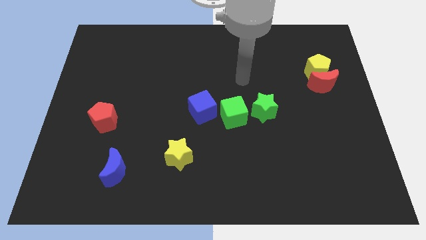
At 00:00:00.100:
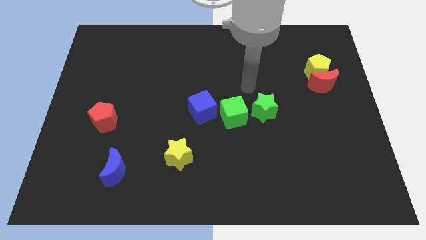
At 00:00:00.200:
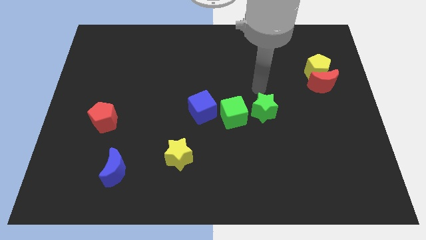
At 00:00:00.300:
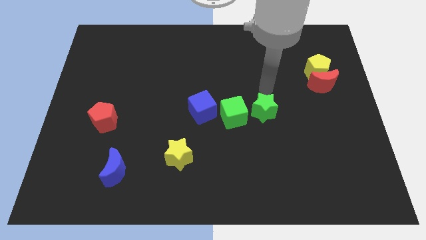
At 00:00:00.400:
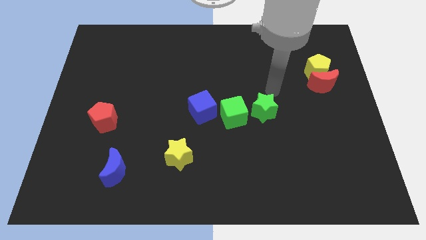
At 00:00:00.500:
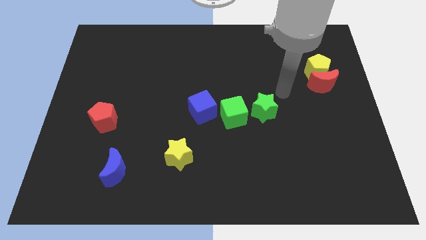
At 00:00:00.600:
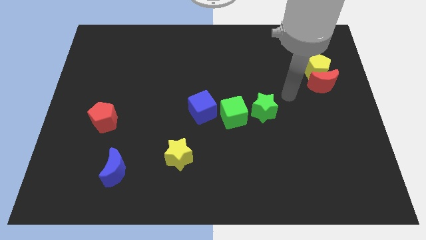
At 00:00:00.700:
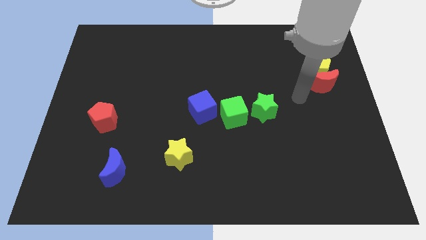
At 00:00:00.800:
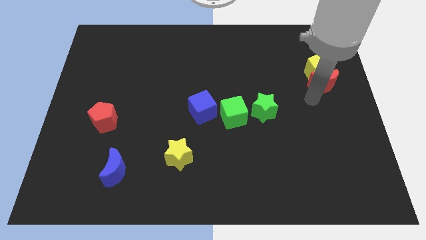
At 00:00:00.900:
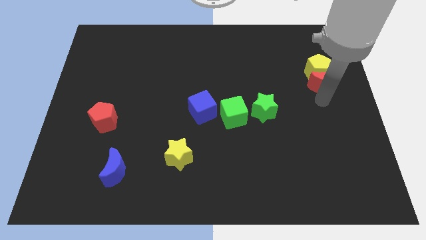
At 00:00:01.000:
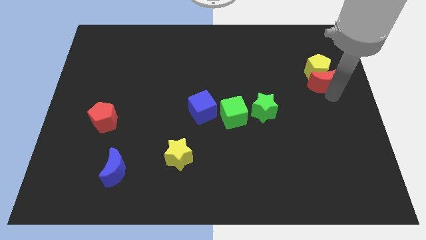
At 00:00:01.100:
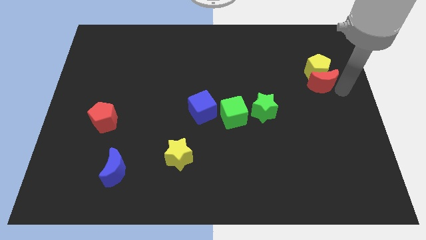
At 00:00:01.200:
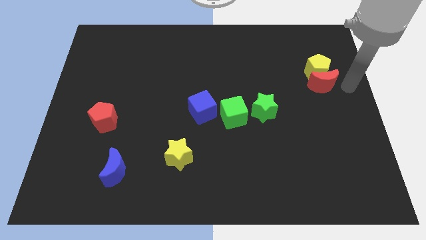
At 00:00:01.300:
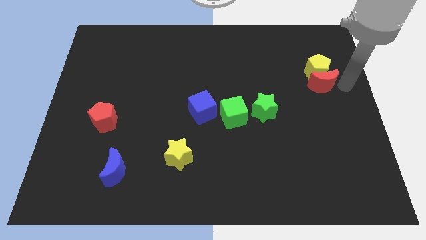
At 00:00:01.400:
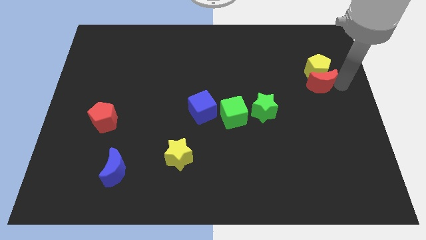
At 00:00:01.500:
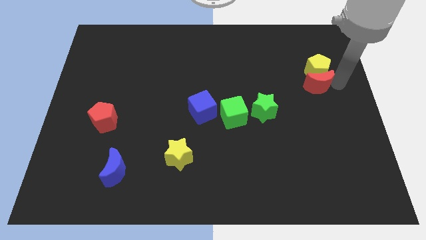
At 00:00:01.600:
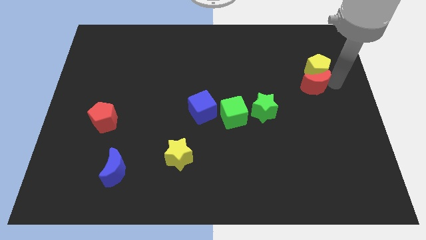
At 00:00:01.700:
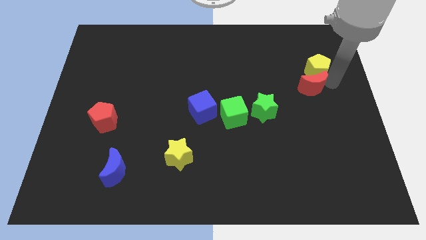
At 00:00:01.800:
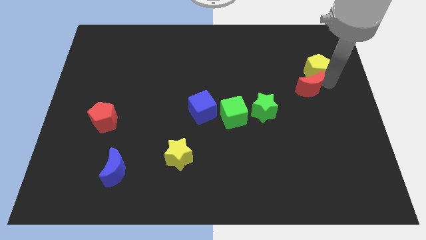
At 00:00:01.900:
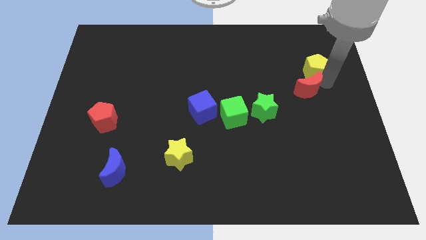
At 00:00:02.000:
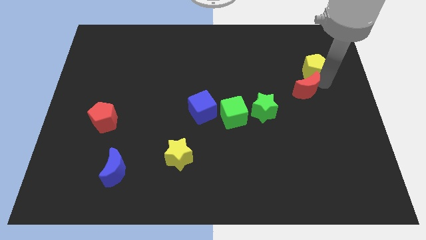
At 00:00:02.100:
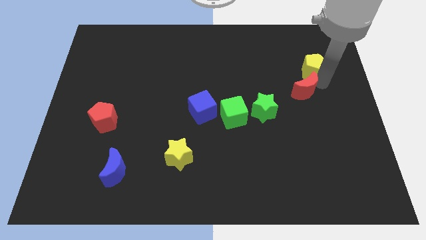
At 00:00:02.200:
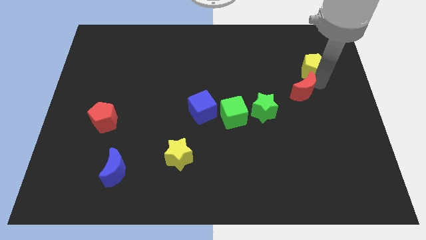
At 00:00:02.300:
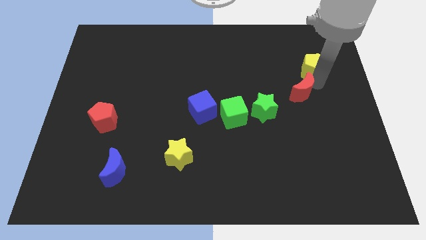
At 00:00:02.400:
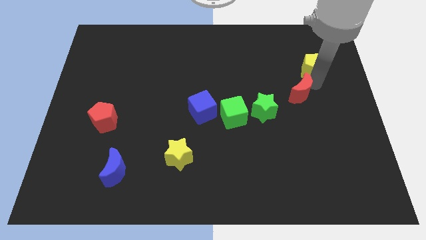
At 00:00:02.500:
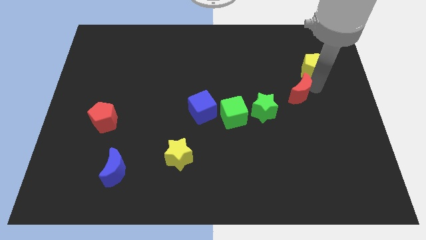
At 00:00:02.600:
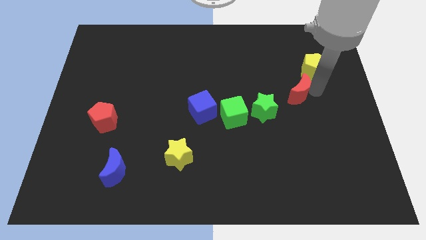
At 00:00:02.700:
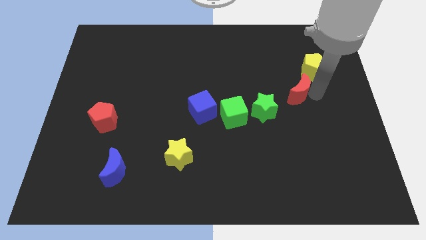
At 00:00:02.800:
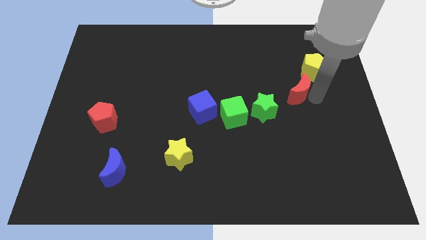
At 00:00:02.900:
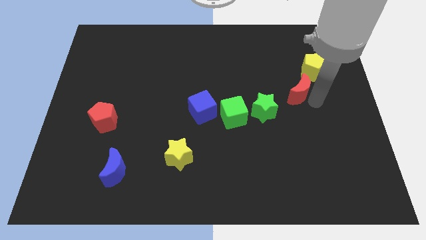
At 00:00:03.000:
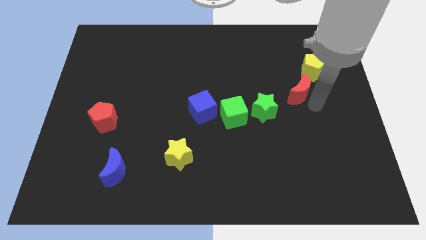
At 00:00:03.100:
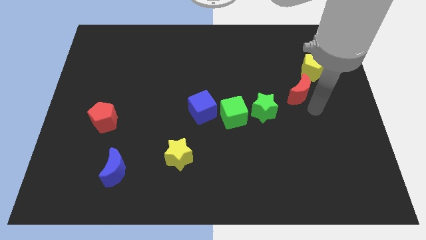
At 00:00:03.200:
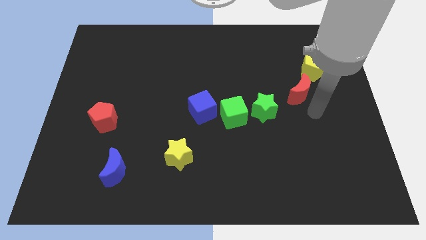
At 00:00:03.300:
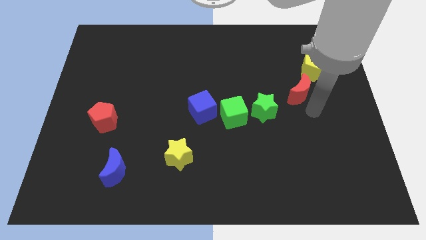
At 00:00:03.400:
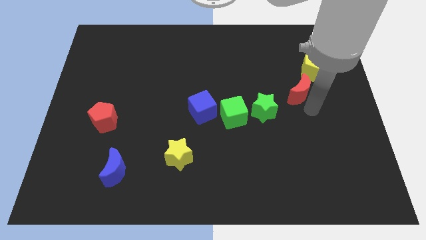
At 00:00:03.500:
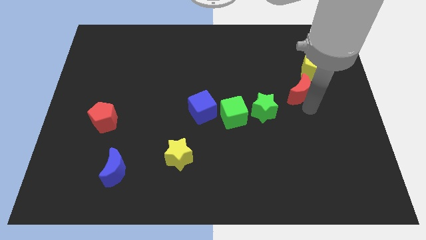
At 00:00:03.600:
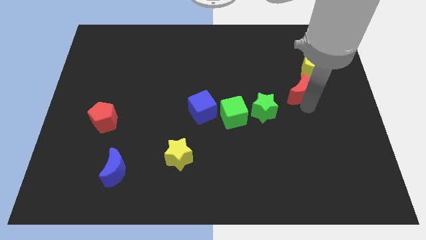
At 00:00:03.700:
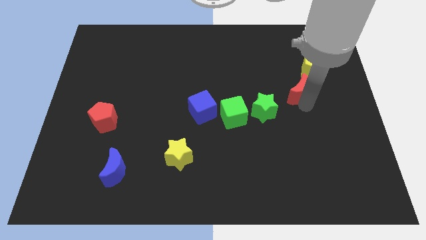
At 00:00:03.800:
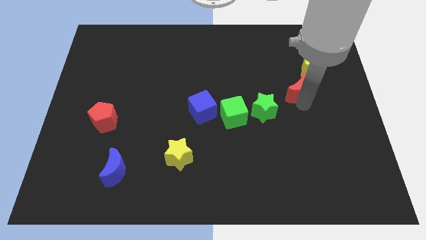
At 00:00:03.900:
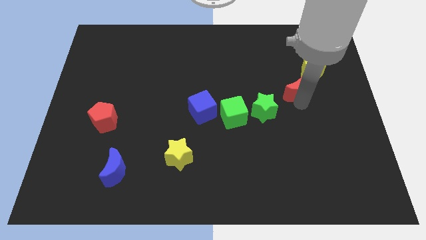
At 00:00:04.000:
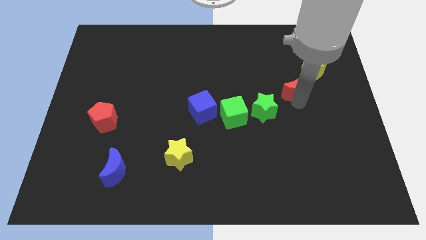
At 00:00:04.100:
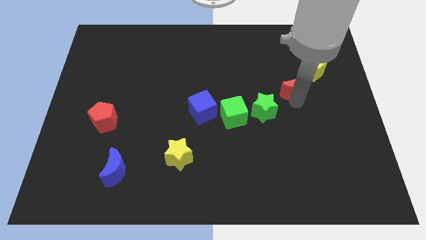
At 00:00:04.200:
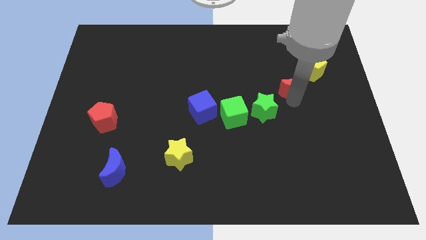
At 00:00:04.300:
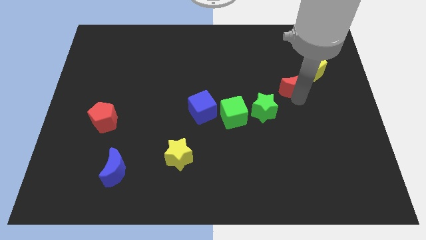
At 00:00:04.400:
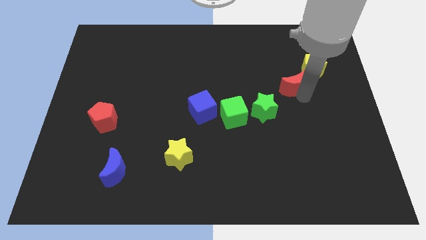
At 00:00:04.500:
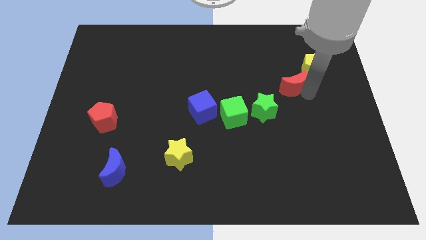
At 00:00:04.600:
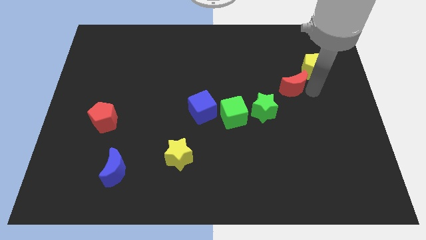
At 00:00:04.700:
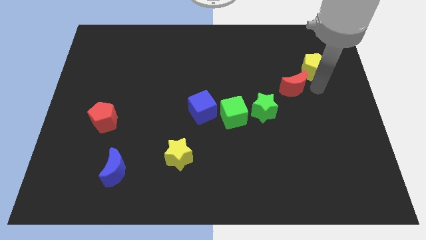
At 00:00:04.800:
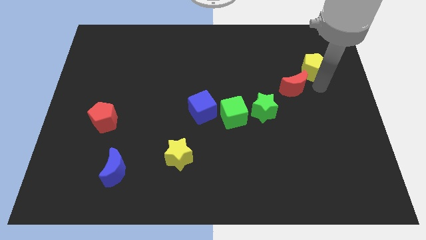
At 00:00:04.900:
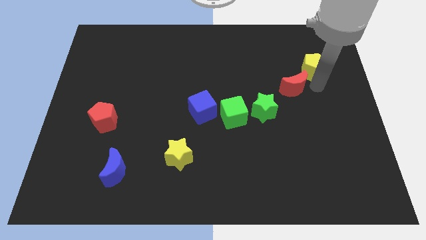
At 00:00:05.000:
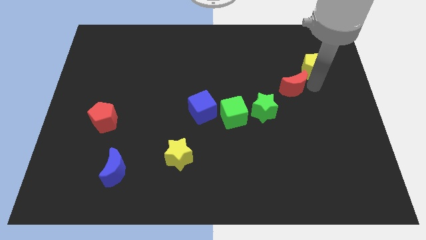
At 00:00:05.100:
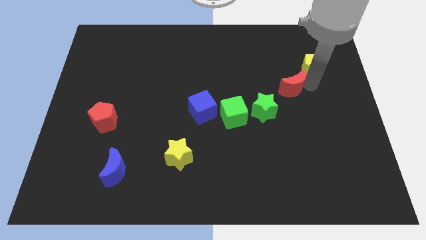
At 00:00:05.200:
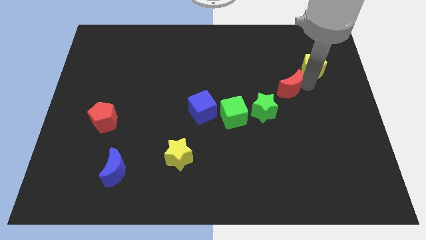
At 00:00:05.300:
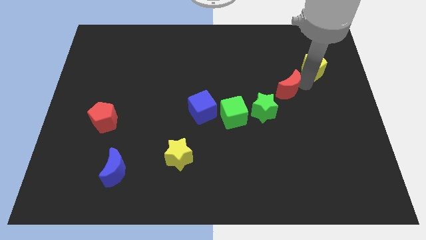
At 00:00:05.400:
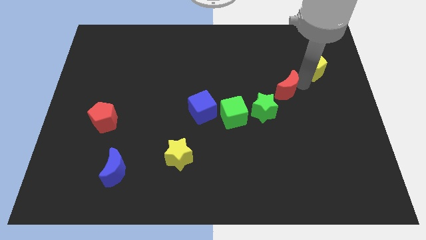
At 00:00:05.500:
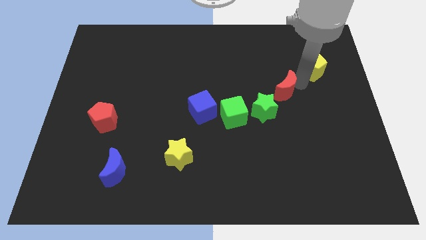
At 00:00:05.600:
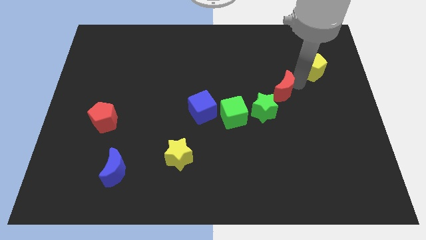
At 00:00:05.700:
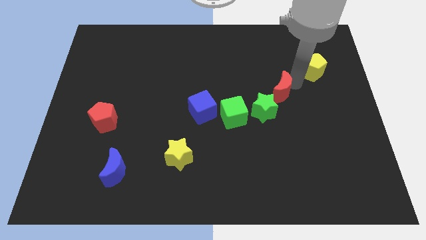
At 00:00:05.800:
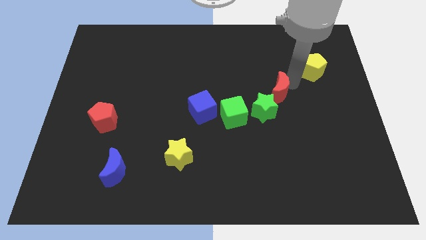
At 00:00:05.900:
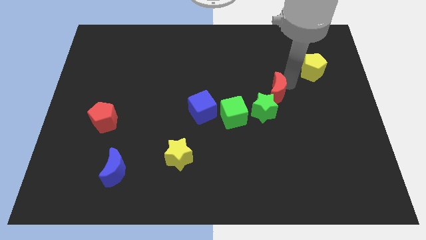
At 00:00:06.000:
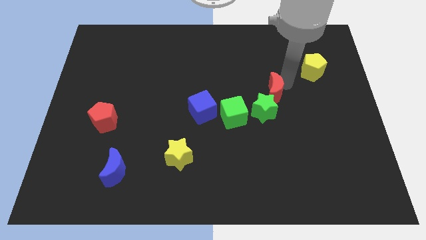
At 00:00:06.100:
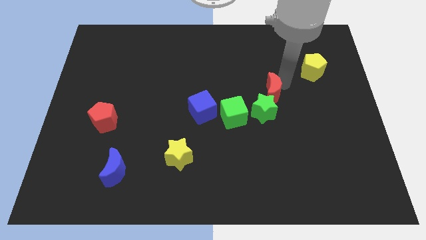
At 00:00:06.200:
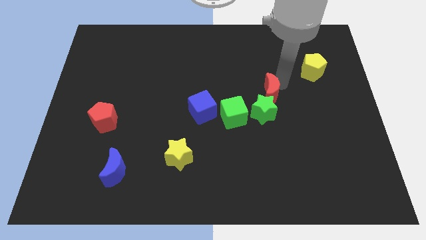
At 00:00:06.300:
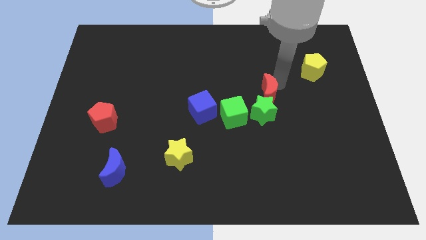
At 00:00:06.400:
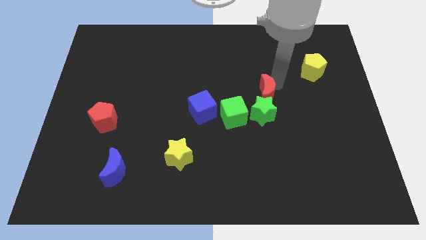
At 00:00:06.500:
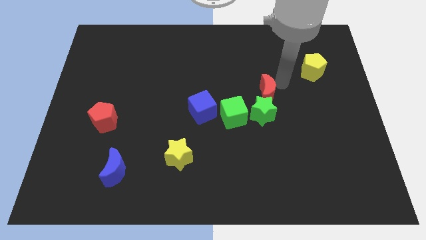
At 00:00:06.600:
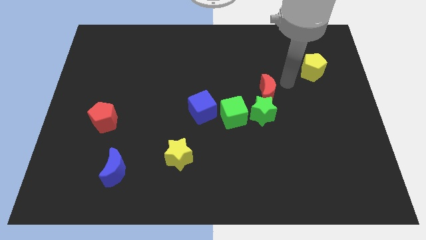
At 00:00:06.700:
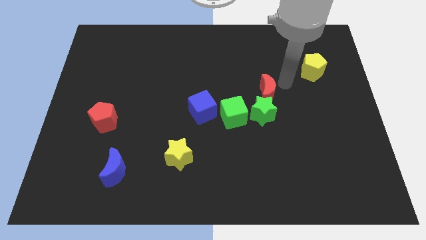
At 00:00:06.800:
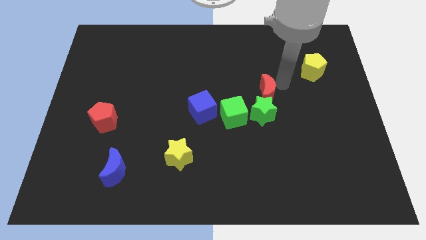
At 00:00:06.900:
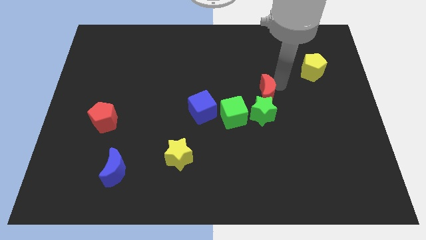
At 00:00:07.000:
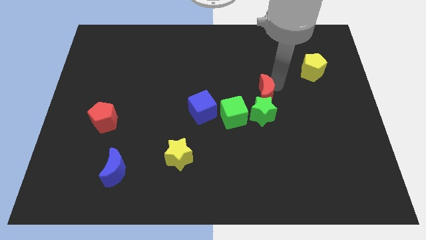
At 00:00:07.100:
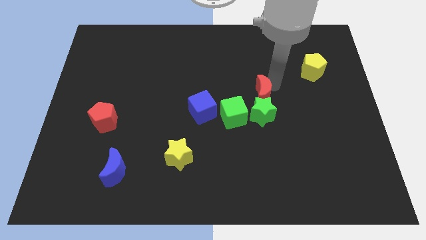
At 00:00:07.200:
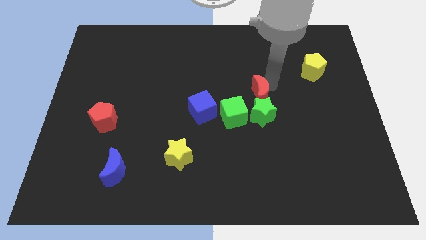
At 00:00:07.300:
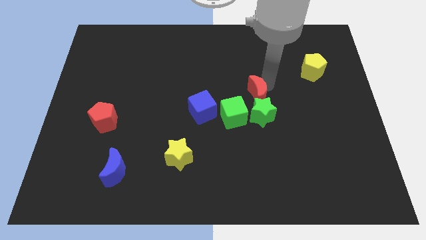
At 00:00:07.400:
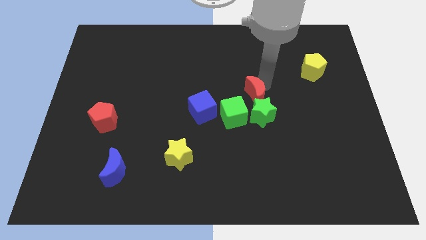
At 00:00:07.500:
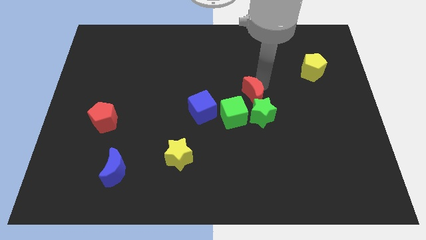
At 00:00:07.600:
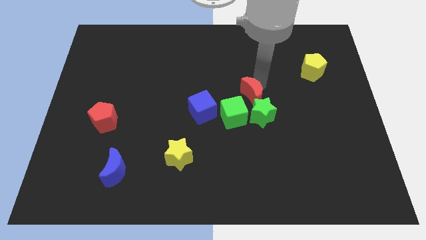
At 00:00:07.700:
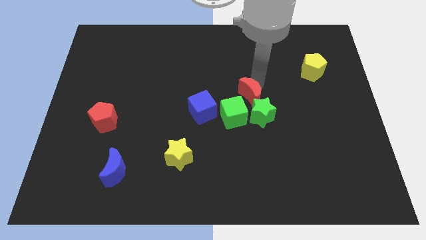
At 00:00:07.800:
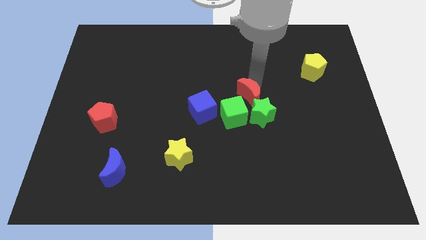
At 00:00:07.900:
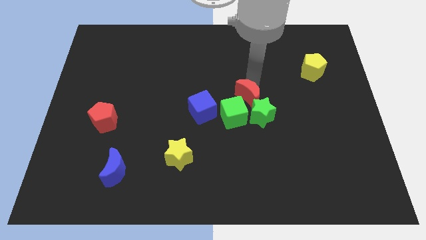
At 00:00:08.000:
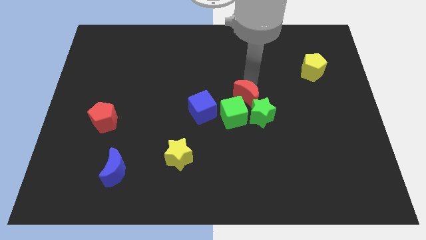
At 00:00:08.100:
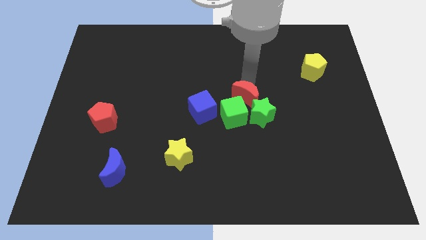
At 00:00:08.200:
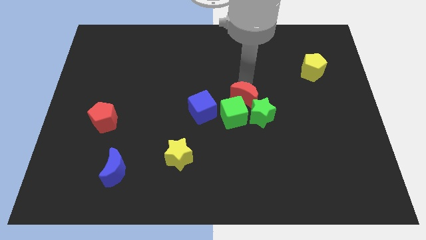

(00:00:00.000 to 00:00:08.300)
put the red moon towards the green cube

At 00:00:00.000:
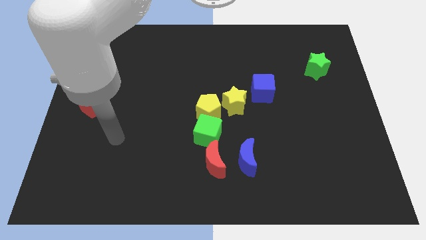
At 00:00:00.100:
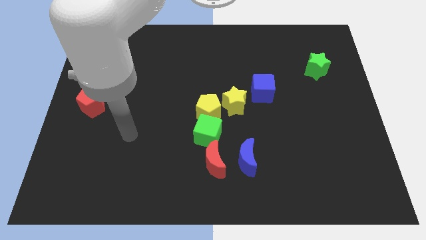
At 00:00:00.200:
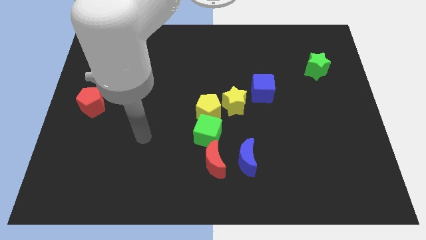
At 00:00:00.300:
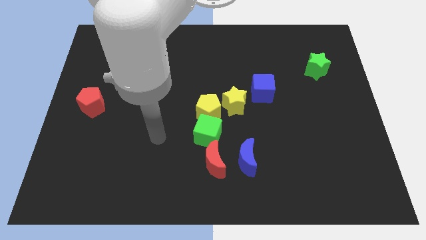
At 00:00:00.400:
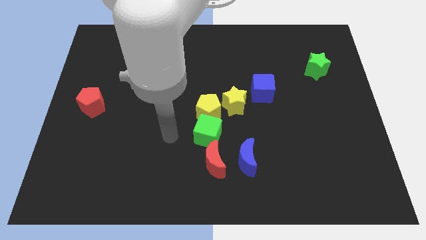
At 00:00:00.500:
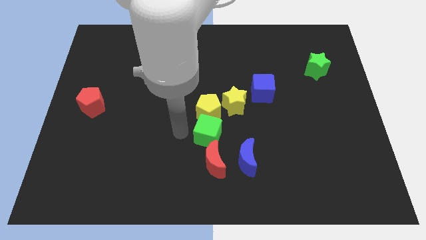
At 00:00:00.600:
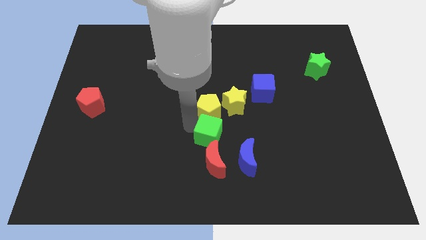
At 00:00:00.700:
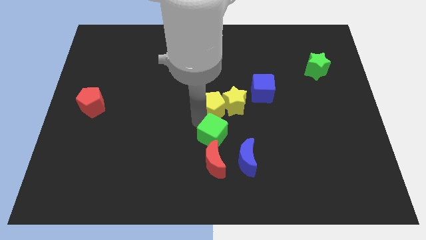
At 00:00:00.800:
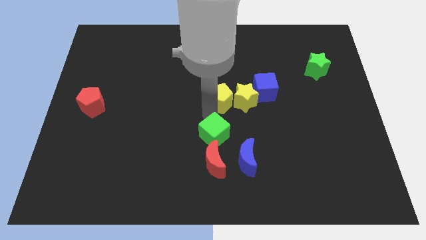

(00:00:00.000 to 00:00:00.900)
slide the yellow star close to the blue cube
